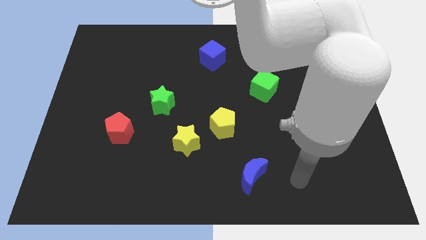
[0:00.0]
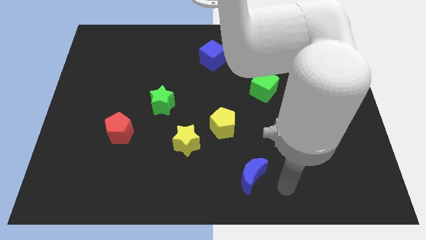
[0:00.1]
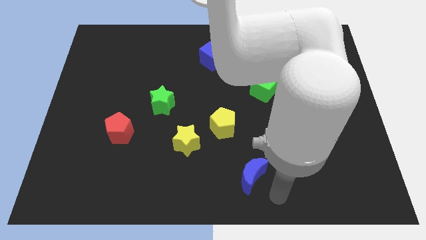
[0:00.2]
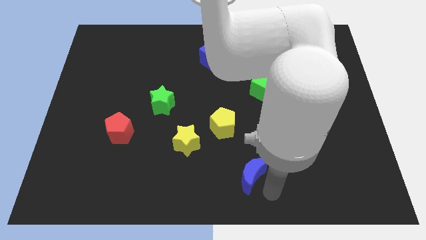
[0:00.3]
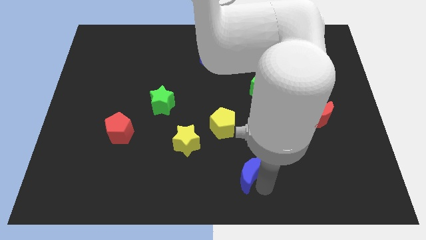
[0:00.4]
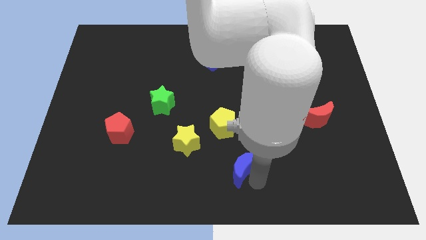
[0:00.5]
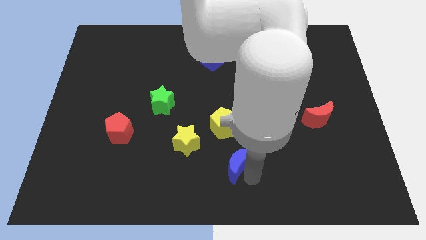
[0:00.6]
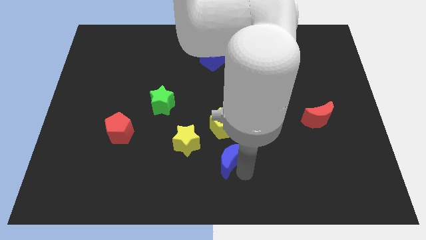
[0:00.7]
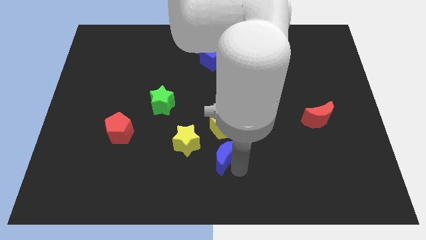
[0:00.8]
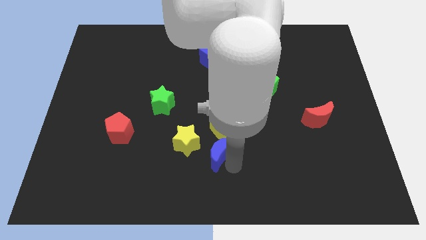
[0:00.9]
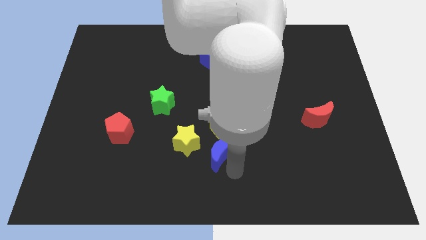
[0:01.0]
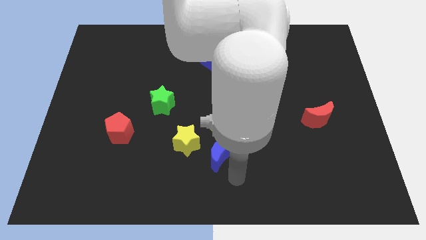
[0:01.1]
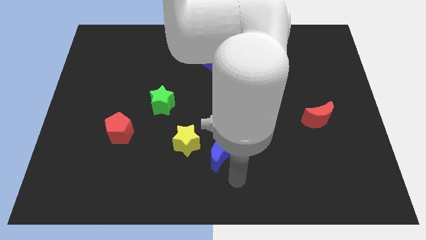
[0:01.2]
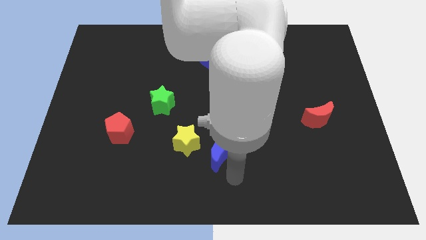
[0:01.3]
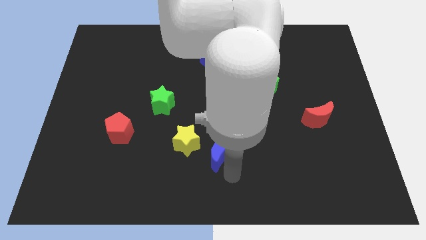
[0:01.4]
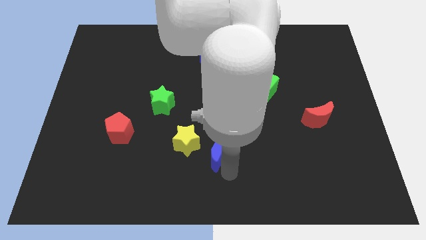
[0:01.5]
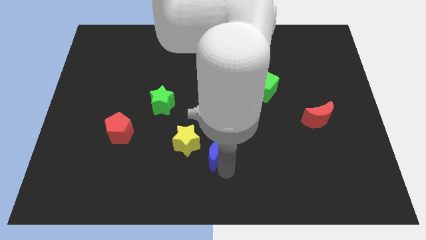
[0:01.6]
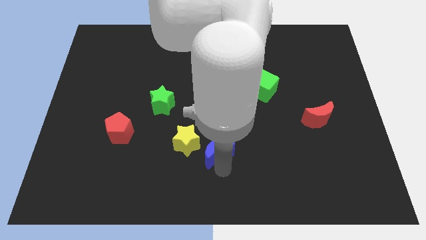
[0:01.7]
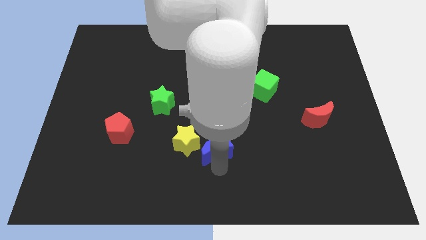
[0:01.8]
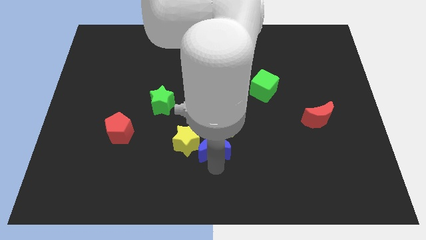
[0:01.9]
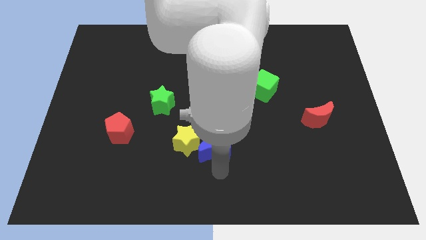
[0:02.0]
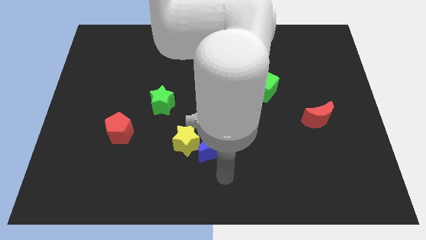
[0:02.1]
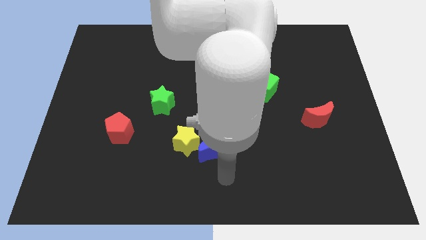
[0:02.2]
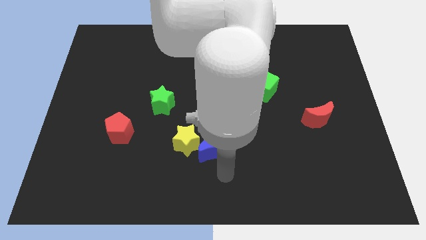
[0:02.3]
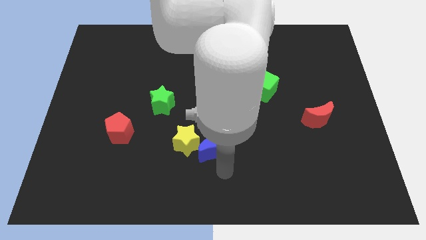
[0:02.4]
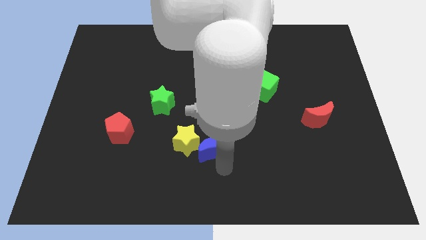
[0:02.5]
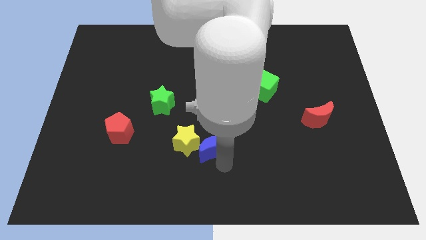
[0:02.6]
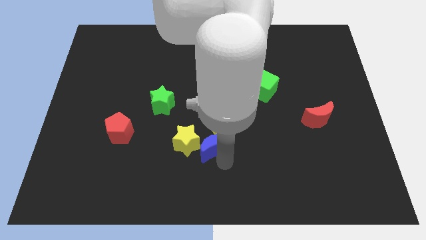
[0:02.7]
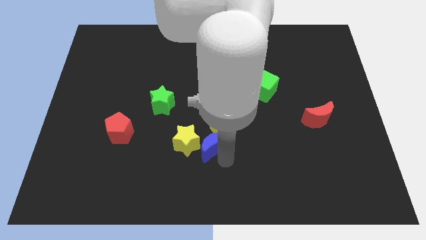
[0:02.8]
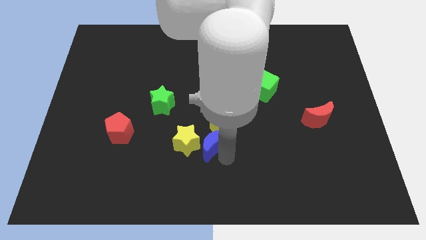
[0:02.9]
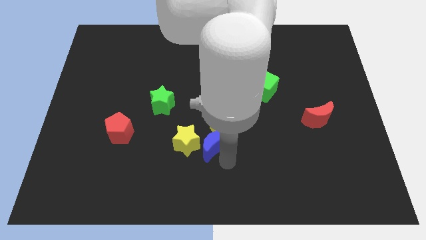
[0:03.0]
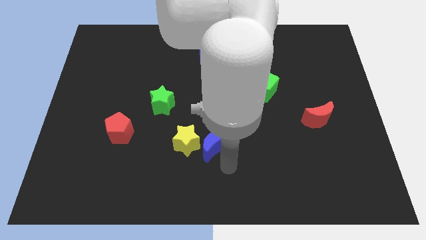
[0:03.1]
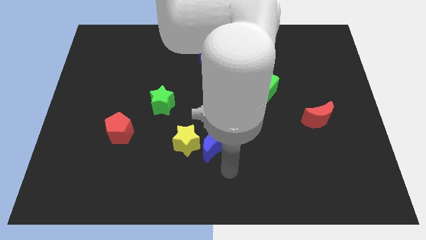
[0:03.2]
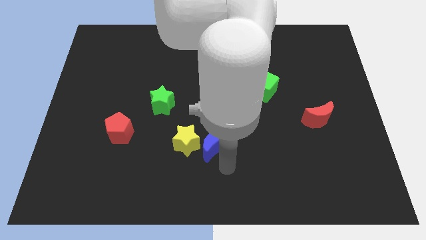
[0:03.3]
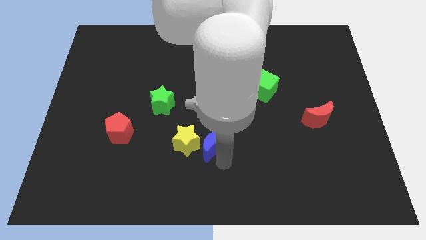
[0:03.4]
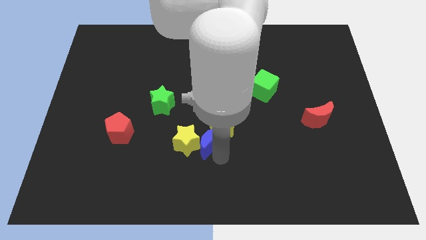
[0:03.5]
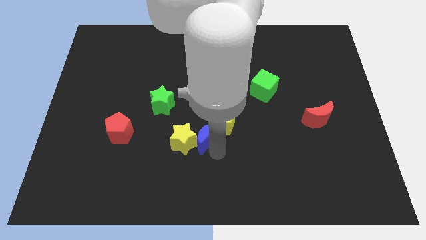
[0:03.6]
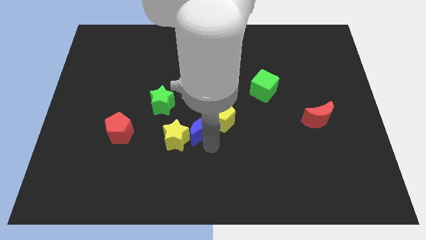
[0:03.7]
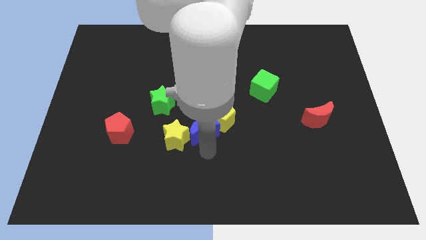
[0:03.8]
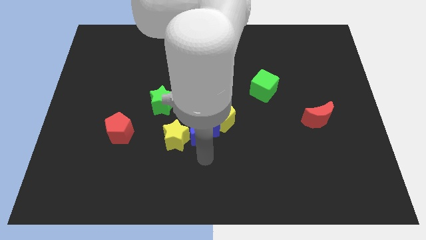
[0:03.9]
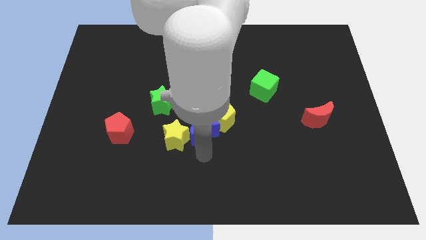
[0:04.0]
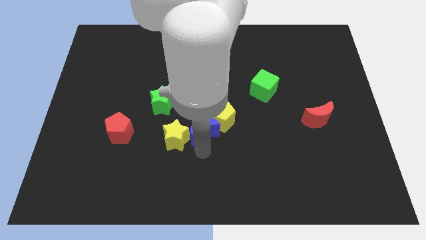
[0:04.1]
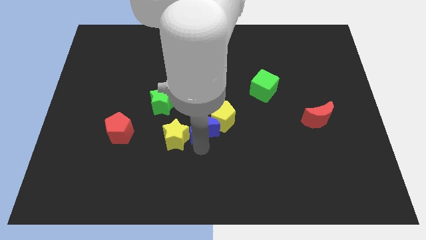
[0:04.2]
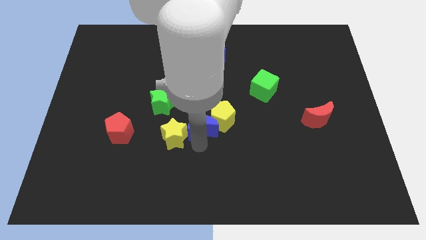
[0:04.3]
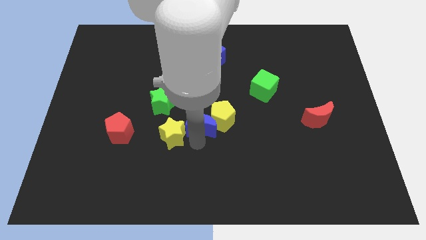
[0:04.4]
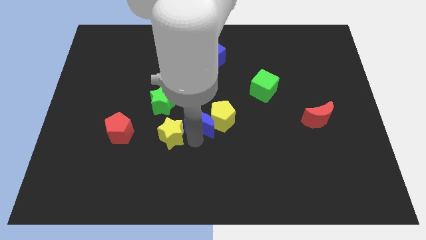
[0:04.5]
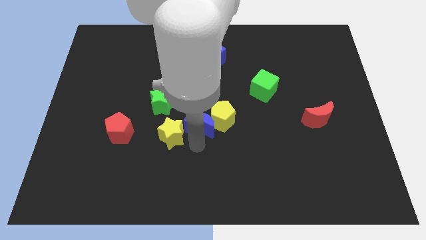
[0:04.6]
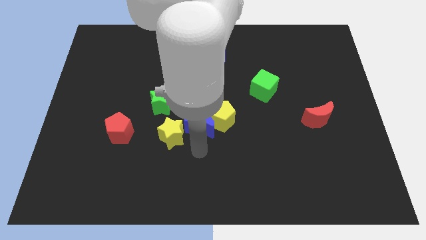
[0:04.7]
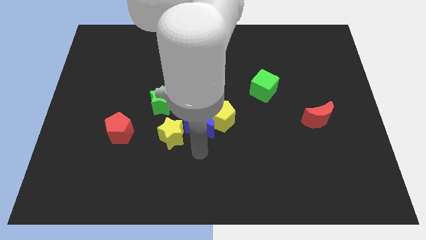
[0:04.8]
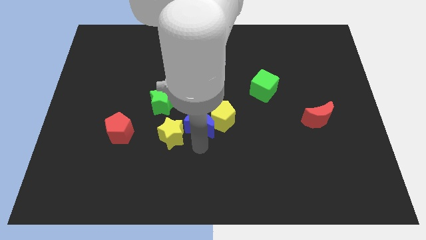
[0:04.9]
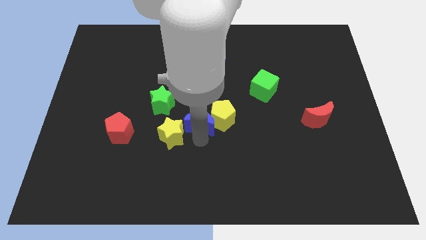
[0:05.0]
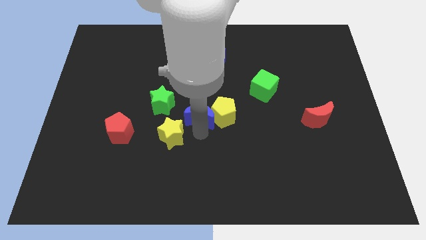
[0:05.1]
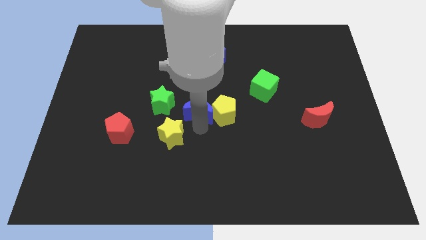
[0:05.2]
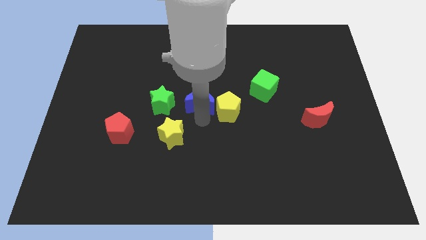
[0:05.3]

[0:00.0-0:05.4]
slide the blue moon upwards and then to the left

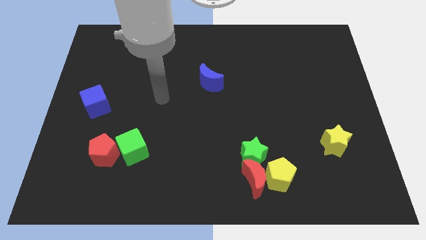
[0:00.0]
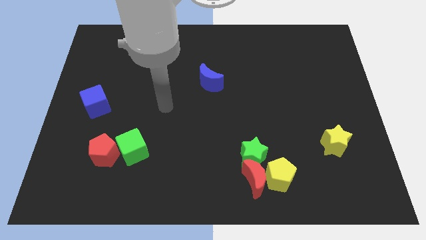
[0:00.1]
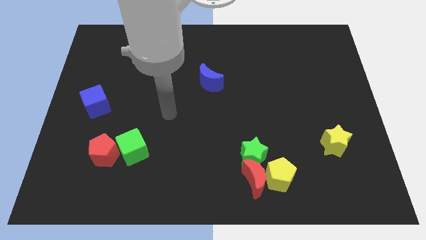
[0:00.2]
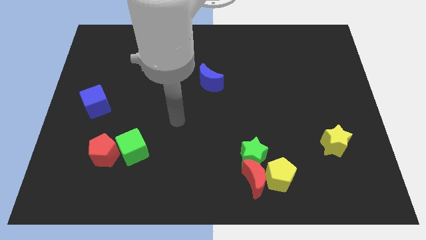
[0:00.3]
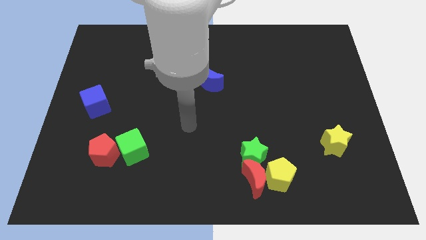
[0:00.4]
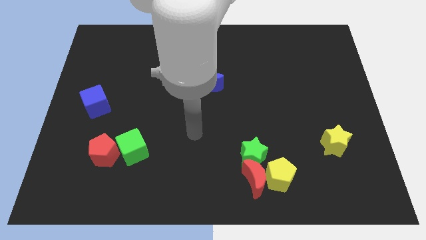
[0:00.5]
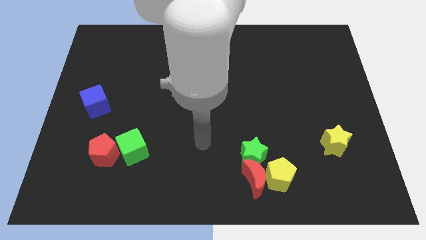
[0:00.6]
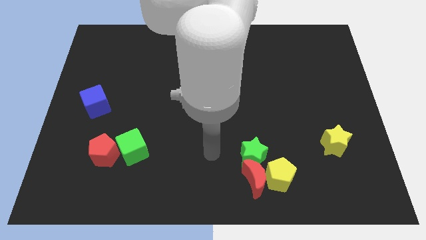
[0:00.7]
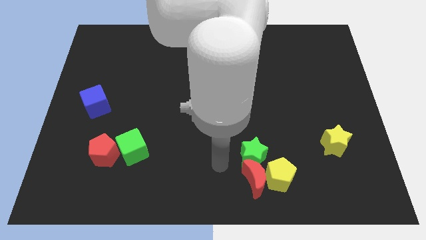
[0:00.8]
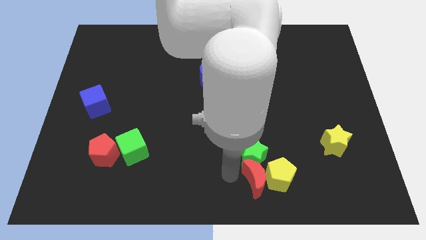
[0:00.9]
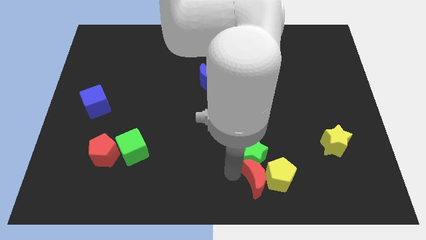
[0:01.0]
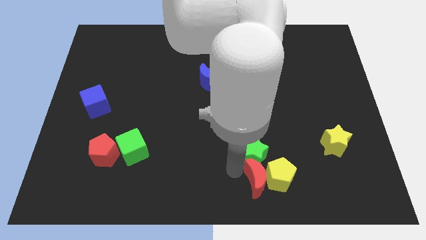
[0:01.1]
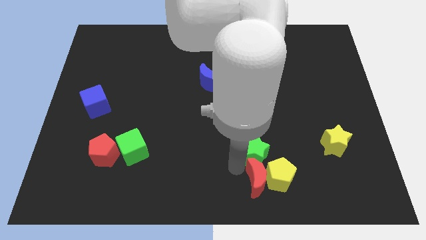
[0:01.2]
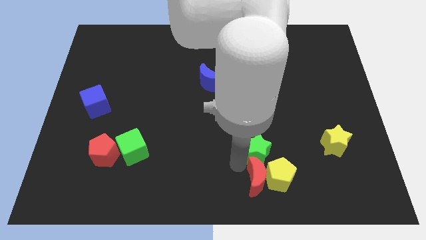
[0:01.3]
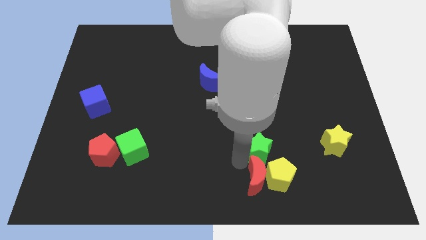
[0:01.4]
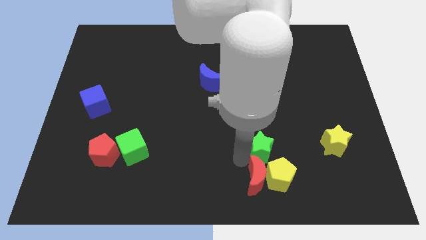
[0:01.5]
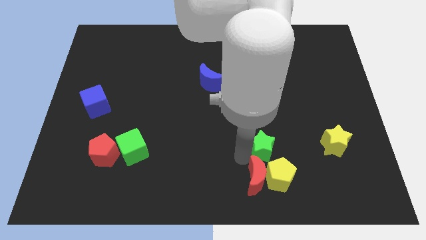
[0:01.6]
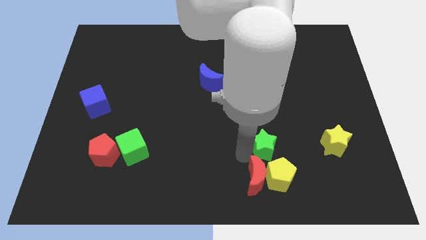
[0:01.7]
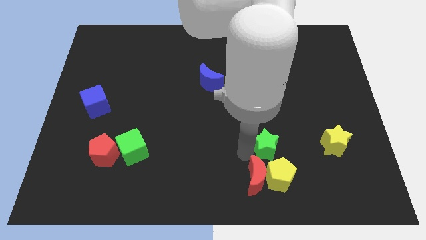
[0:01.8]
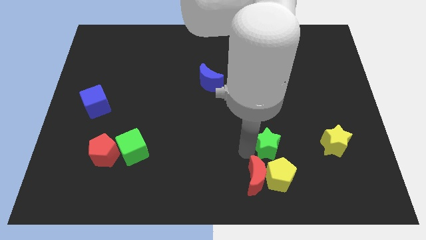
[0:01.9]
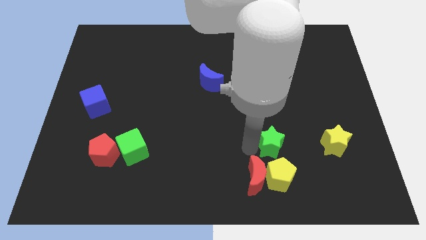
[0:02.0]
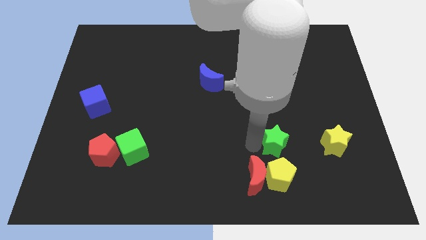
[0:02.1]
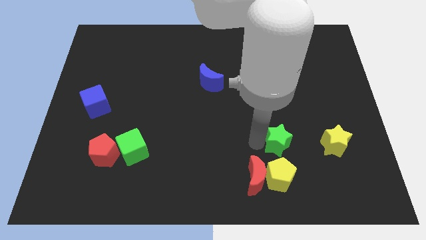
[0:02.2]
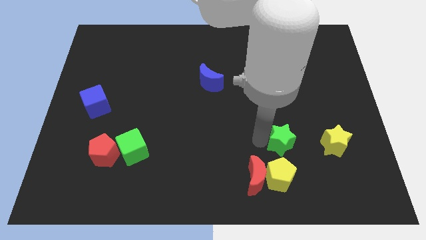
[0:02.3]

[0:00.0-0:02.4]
slide the green star a little bit upwards and then right

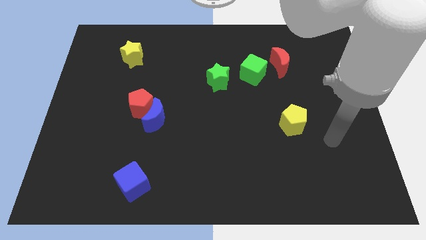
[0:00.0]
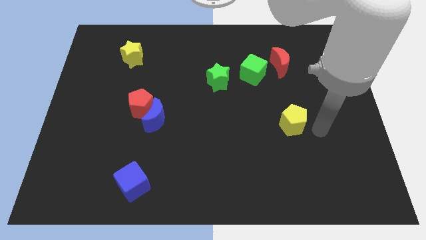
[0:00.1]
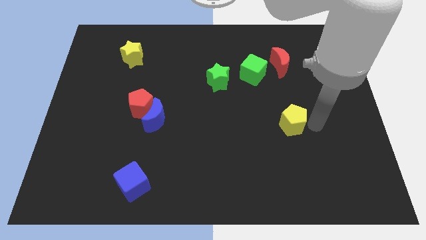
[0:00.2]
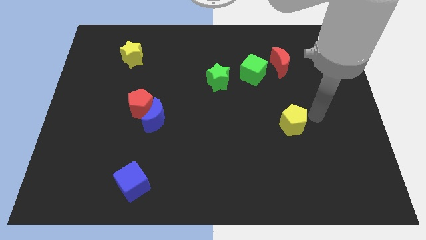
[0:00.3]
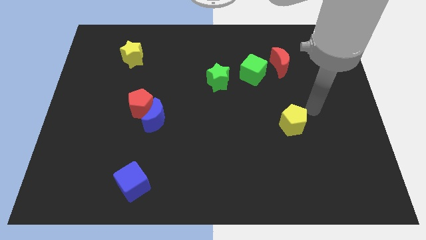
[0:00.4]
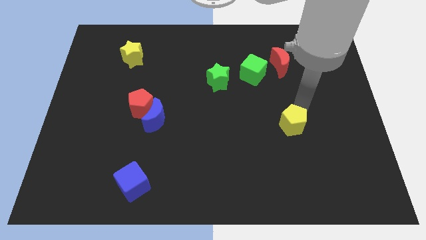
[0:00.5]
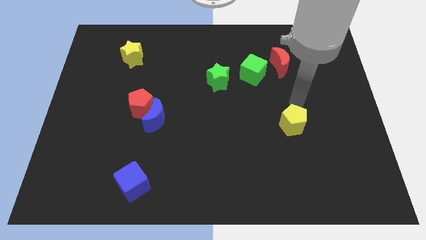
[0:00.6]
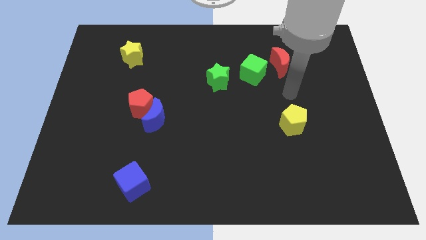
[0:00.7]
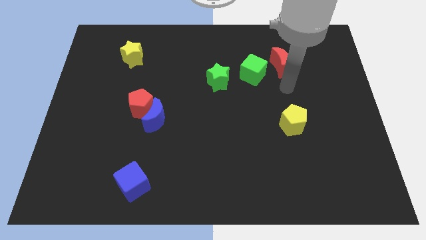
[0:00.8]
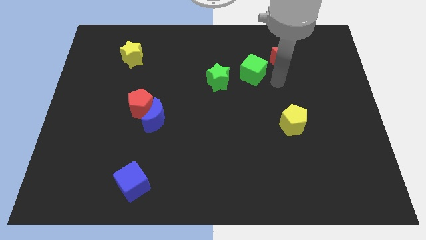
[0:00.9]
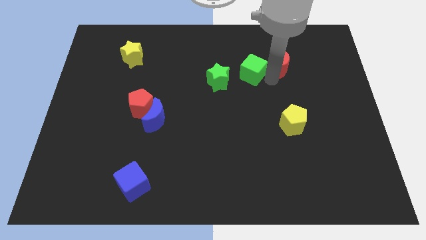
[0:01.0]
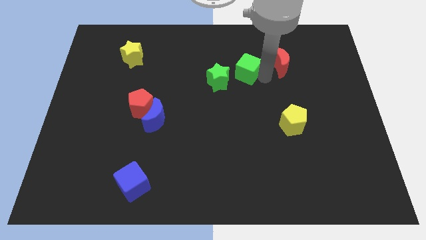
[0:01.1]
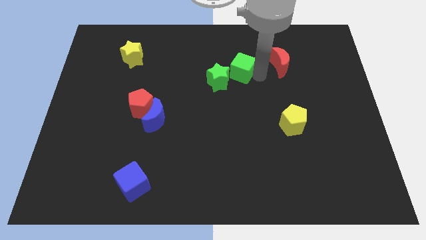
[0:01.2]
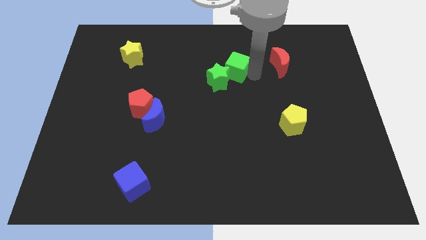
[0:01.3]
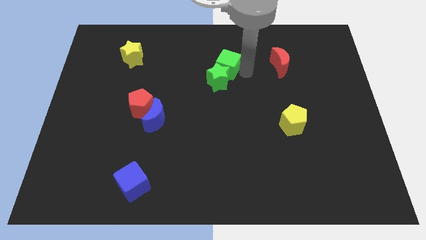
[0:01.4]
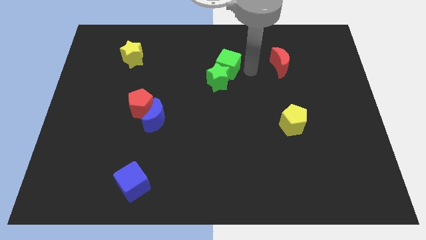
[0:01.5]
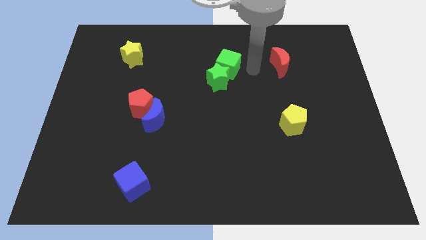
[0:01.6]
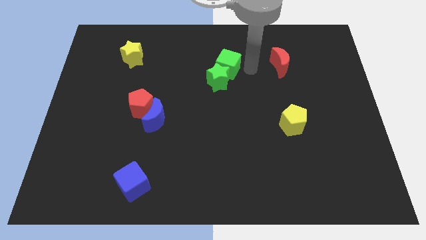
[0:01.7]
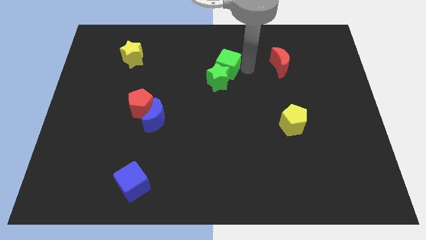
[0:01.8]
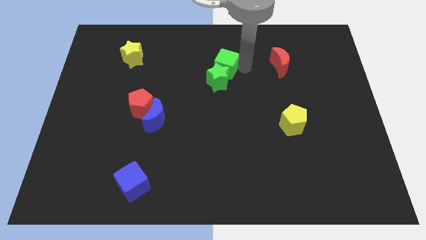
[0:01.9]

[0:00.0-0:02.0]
push the green cube to the left a little
